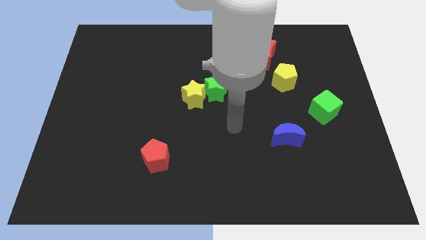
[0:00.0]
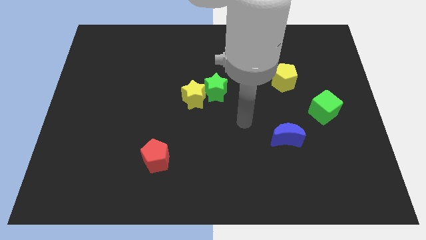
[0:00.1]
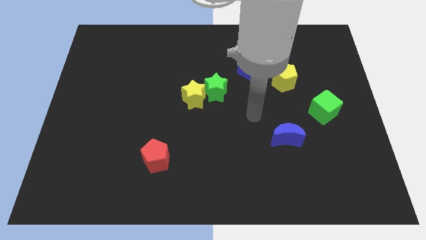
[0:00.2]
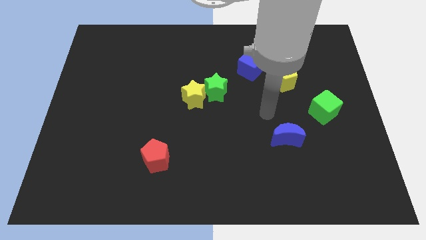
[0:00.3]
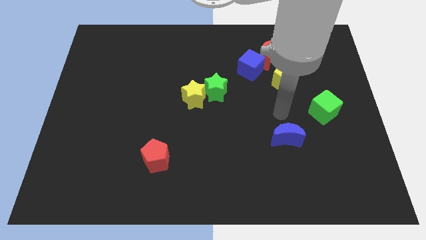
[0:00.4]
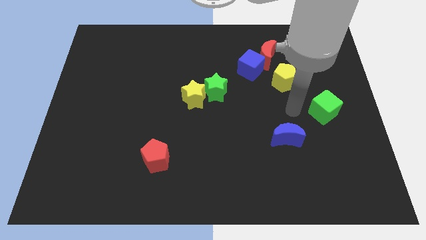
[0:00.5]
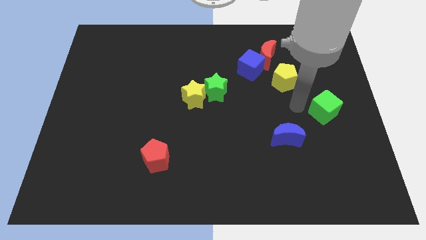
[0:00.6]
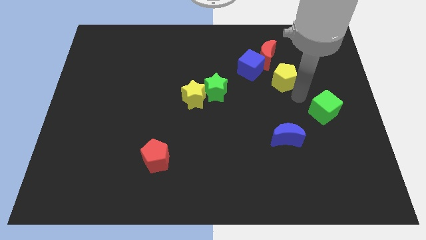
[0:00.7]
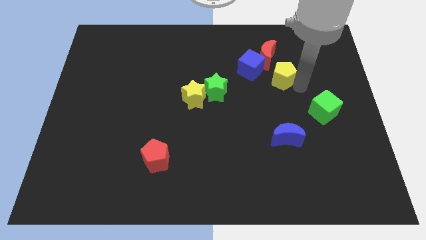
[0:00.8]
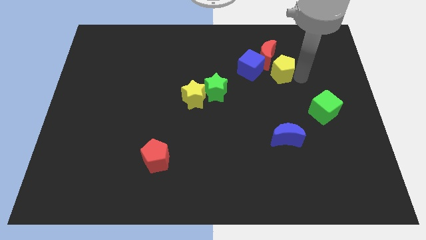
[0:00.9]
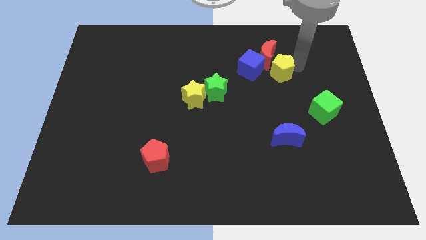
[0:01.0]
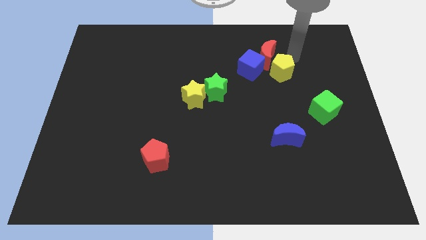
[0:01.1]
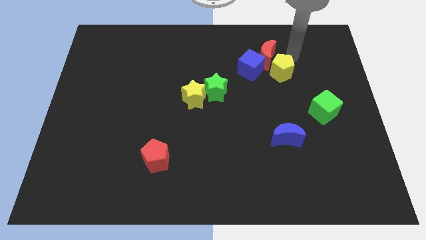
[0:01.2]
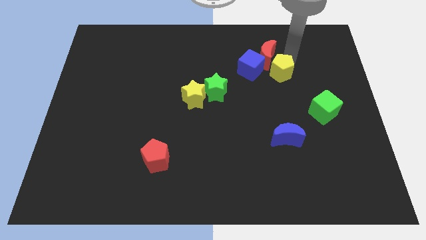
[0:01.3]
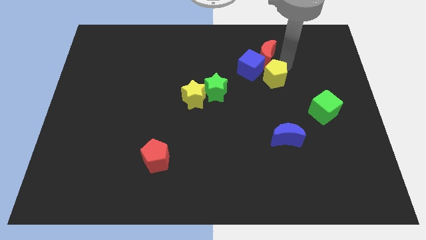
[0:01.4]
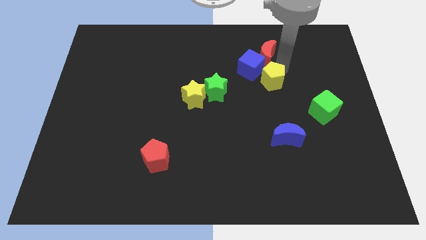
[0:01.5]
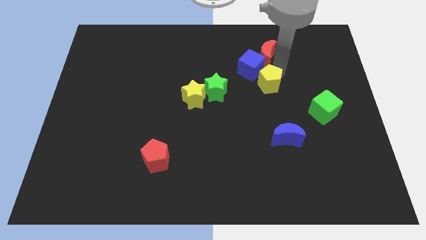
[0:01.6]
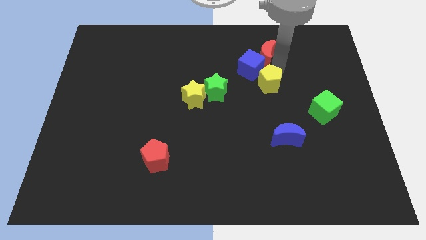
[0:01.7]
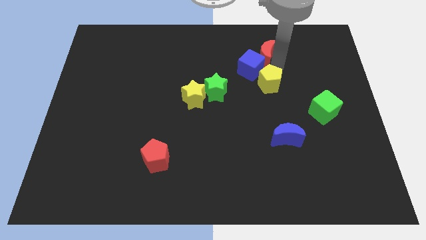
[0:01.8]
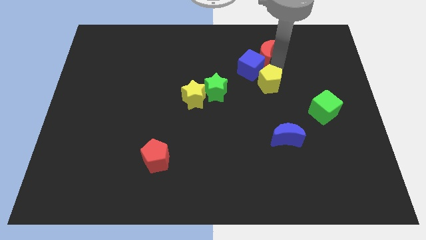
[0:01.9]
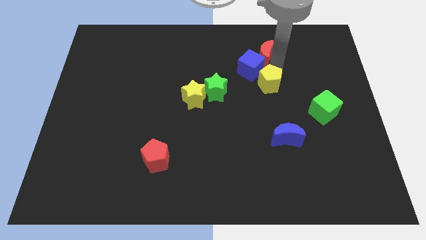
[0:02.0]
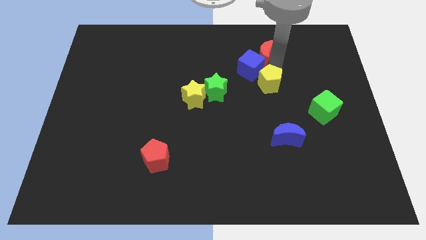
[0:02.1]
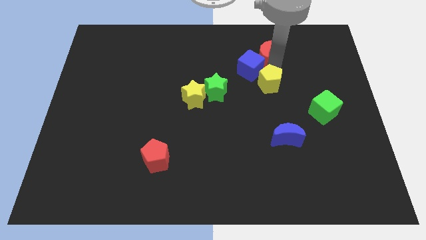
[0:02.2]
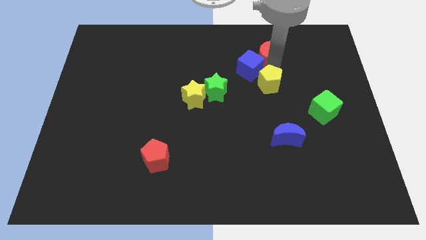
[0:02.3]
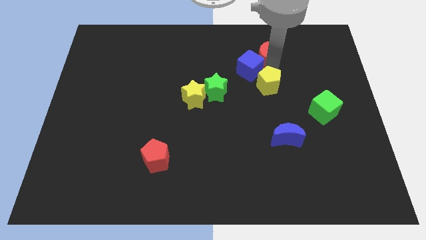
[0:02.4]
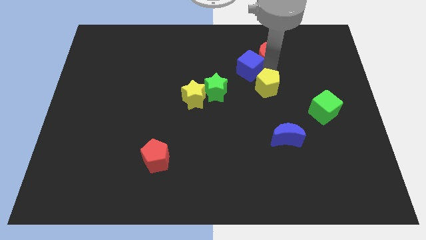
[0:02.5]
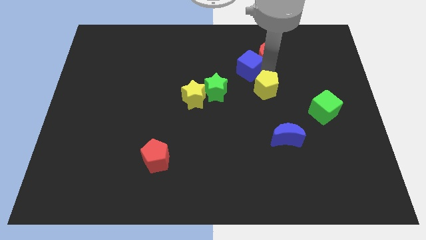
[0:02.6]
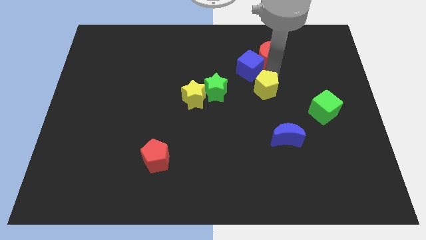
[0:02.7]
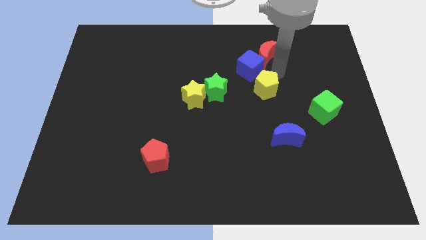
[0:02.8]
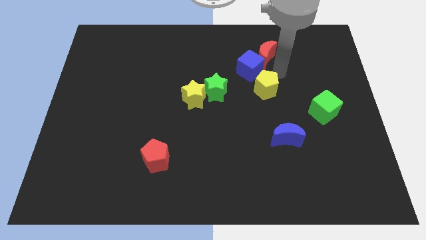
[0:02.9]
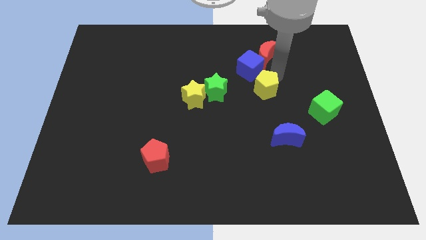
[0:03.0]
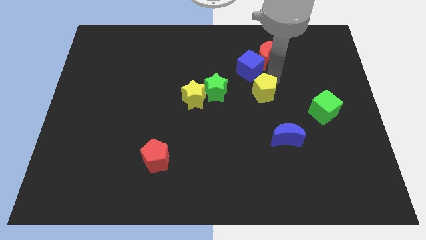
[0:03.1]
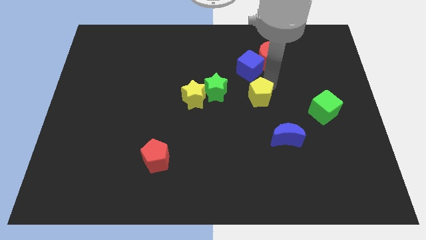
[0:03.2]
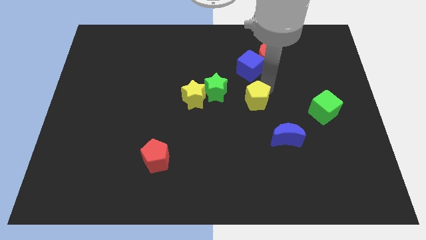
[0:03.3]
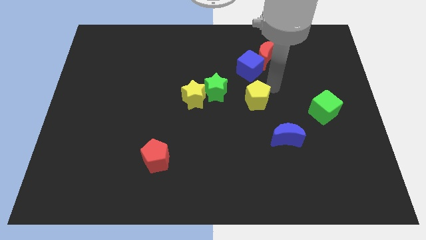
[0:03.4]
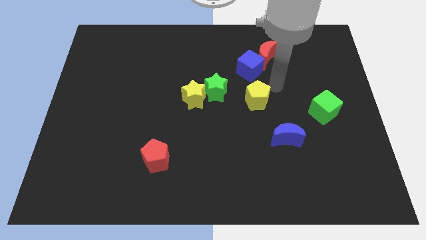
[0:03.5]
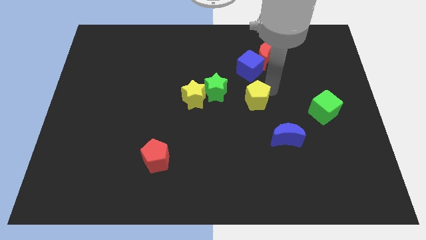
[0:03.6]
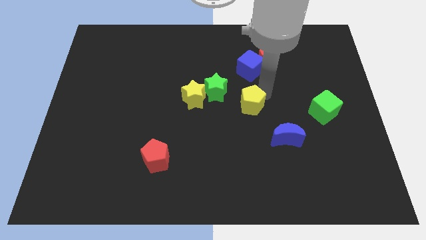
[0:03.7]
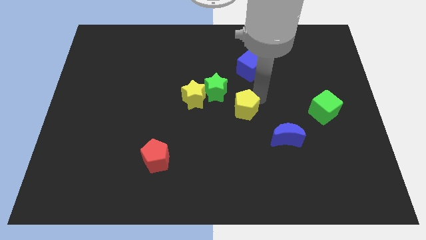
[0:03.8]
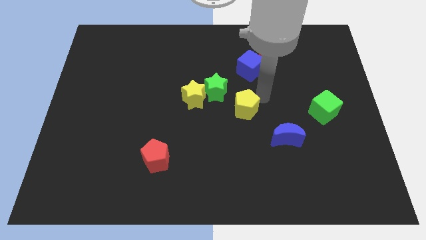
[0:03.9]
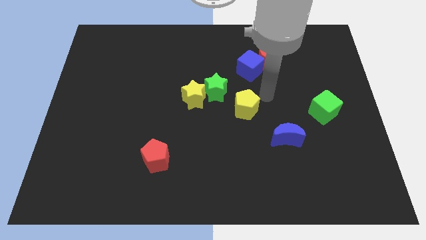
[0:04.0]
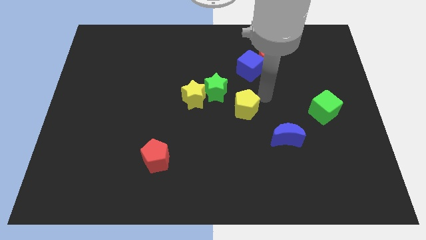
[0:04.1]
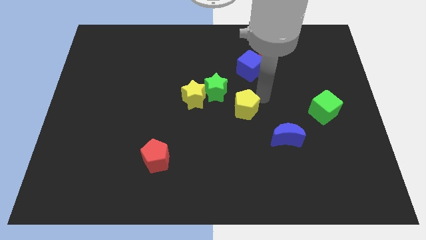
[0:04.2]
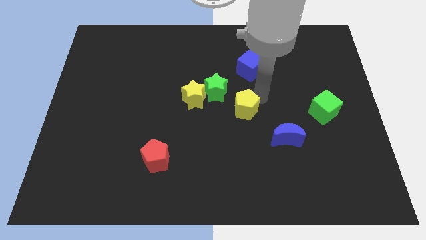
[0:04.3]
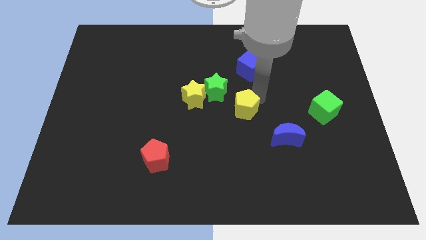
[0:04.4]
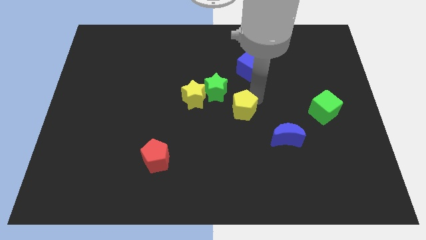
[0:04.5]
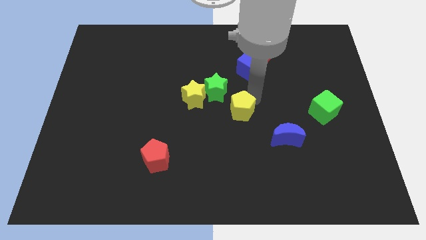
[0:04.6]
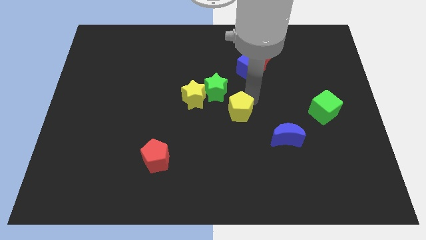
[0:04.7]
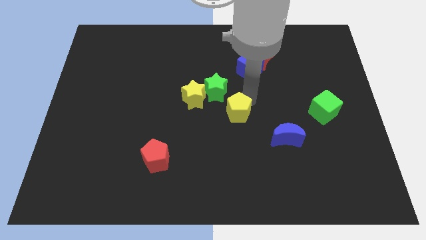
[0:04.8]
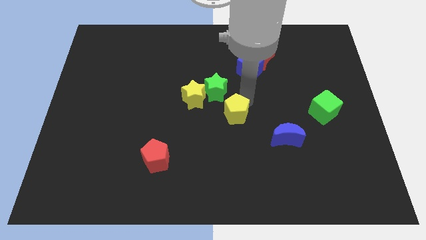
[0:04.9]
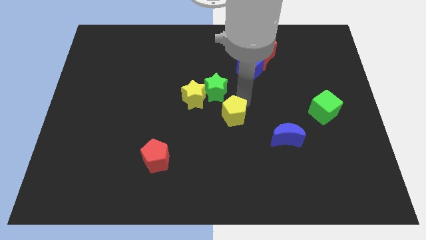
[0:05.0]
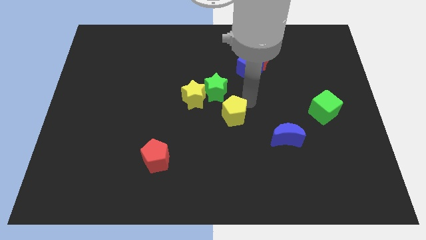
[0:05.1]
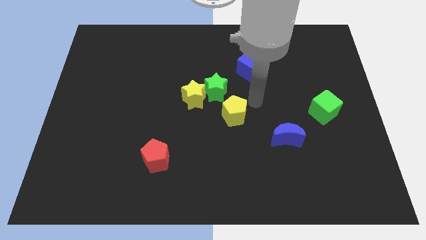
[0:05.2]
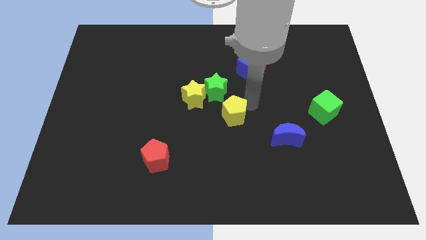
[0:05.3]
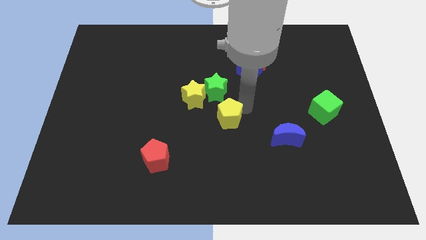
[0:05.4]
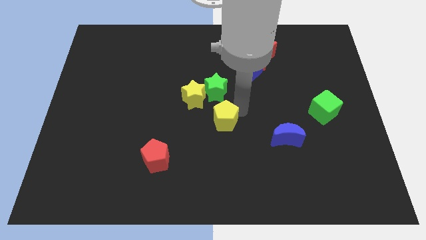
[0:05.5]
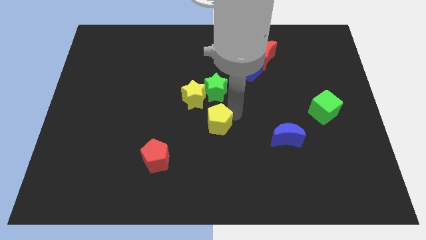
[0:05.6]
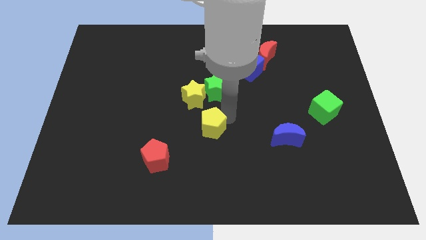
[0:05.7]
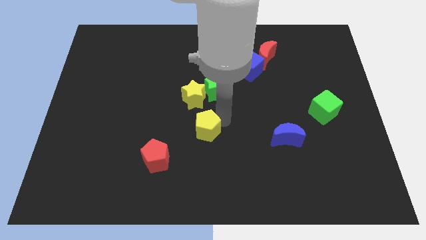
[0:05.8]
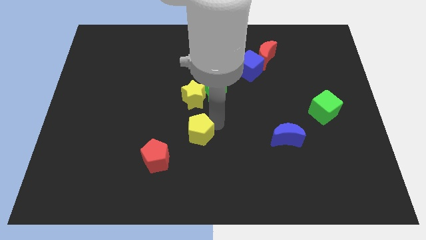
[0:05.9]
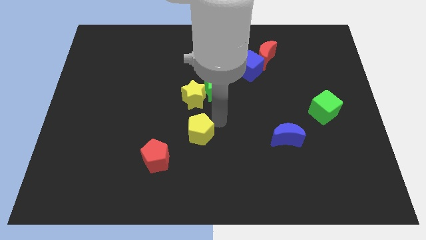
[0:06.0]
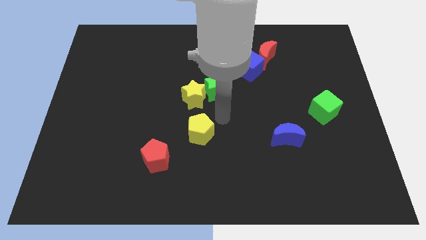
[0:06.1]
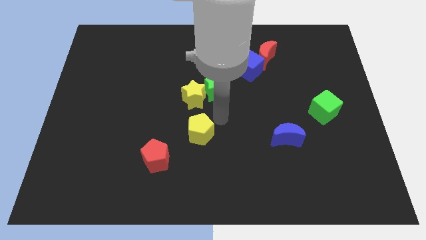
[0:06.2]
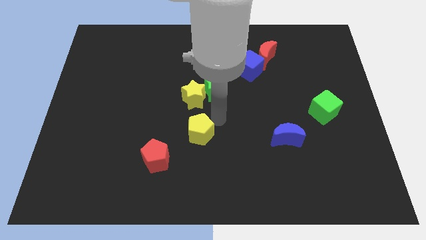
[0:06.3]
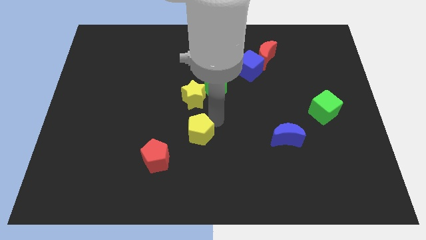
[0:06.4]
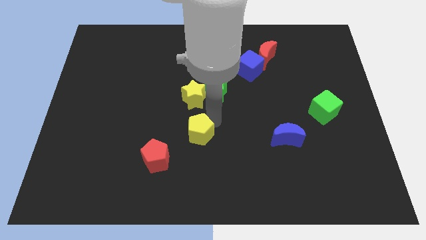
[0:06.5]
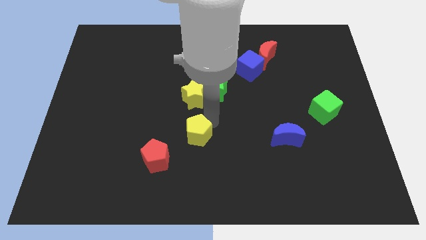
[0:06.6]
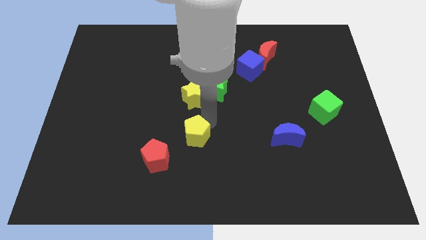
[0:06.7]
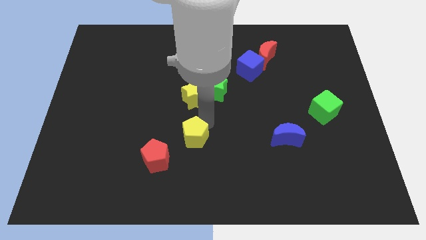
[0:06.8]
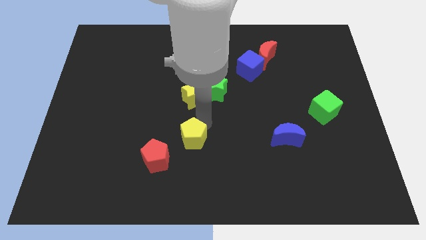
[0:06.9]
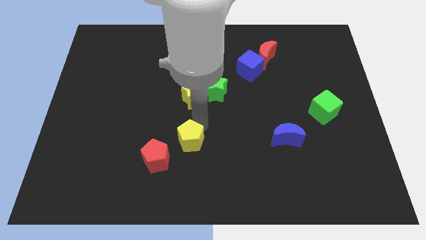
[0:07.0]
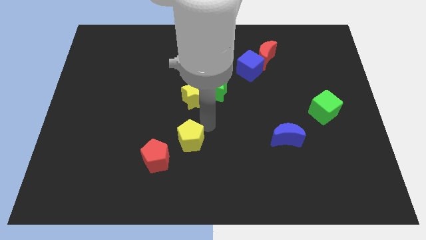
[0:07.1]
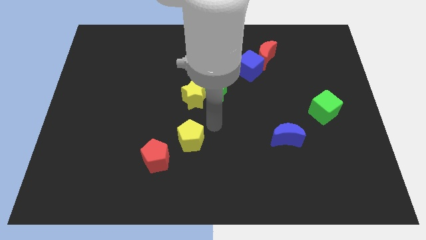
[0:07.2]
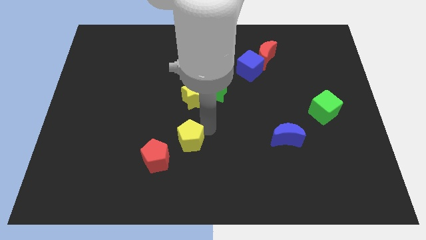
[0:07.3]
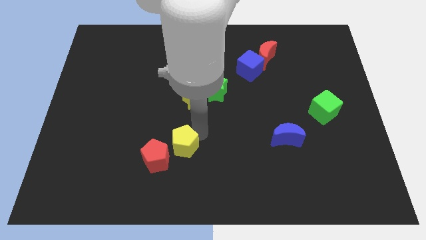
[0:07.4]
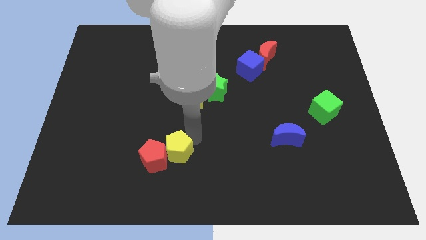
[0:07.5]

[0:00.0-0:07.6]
put the yellow pentagon close to the red pentagon

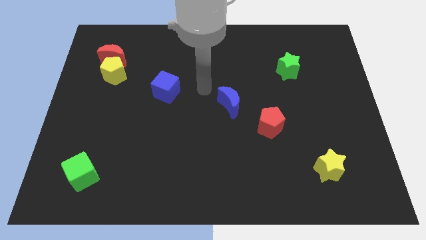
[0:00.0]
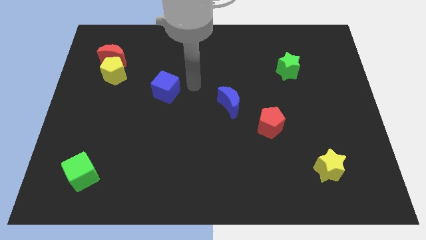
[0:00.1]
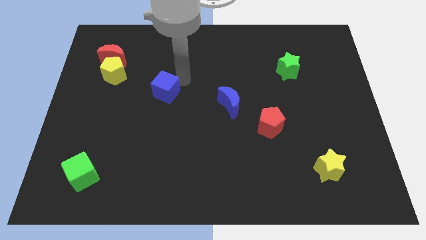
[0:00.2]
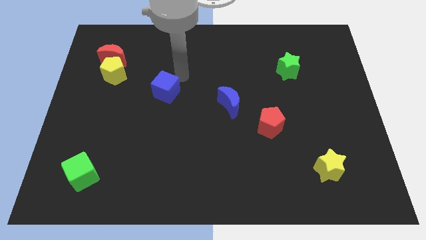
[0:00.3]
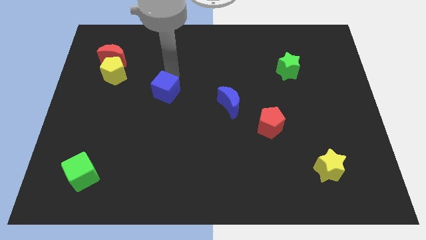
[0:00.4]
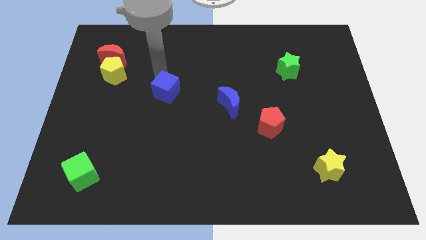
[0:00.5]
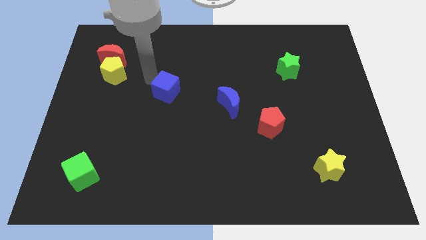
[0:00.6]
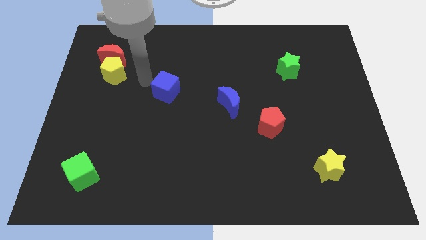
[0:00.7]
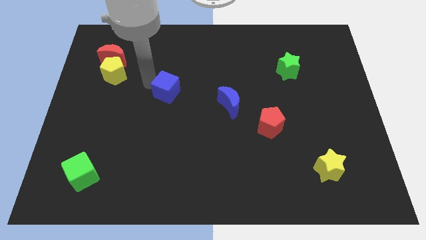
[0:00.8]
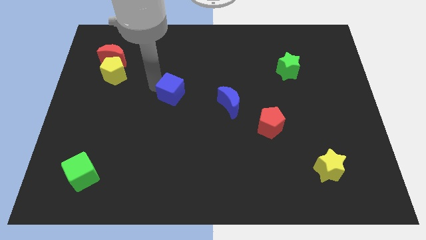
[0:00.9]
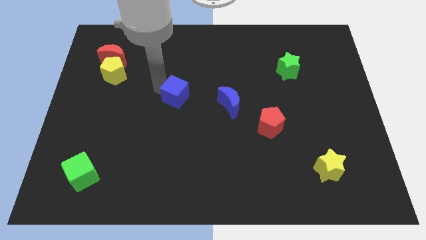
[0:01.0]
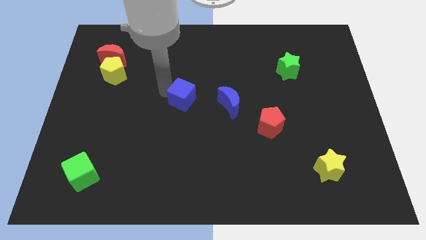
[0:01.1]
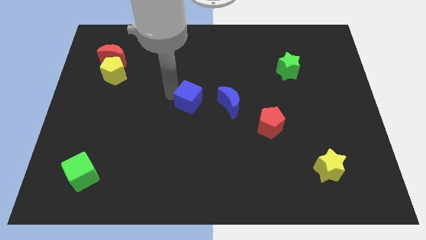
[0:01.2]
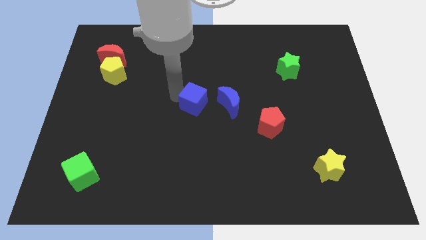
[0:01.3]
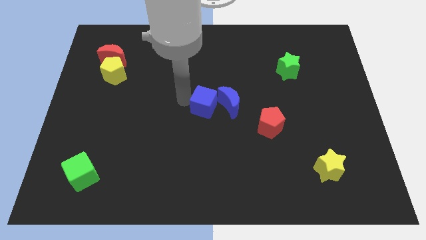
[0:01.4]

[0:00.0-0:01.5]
push the blue cube to the blue moon
